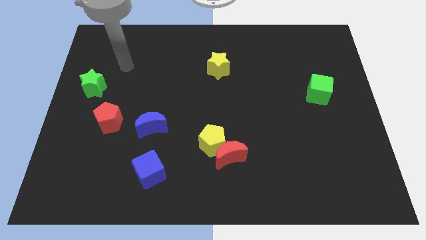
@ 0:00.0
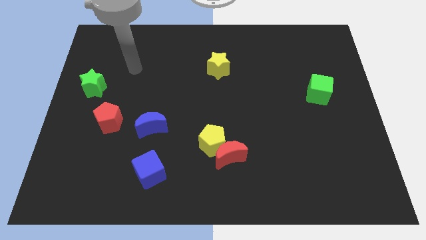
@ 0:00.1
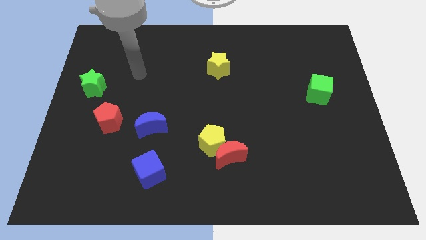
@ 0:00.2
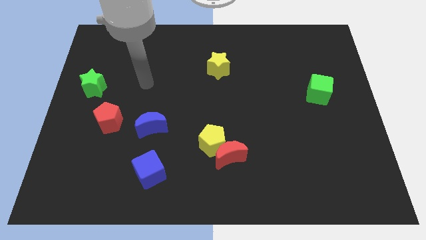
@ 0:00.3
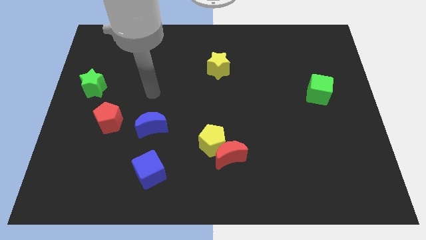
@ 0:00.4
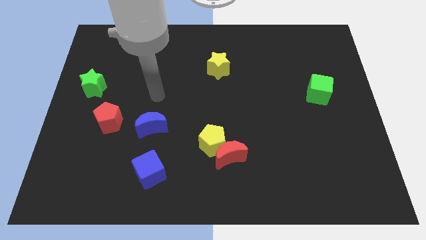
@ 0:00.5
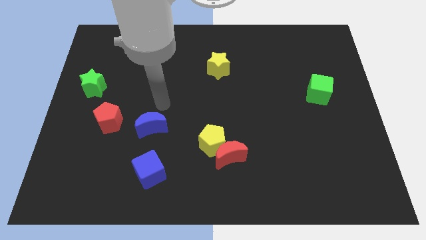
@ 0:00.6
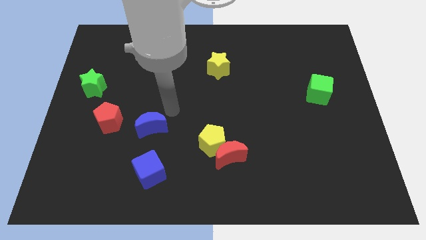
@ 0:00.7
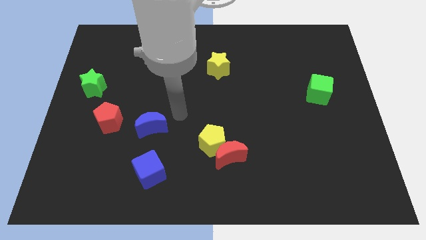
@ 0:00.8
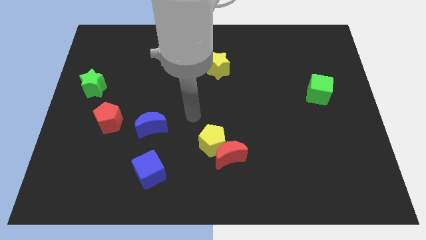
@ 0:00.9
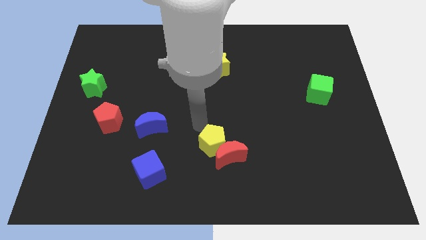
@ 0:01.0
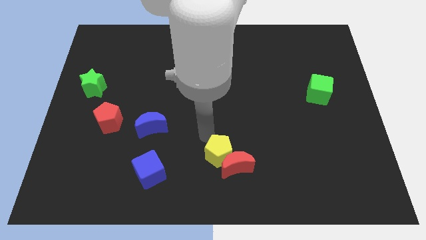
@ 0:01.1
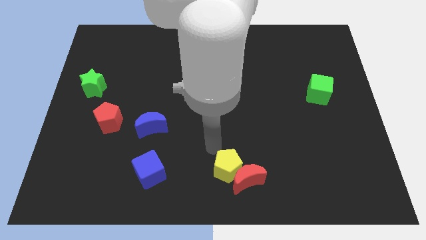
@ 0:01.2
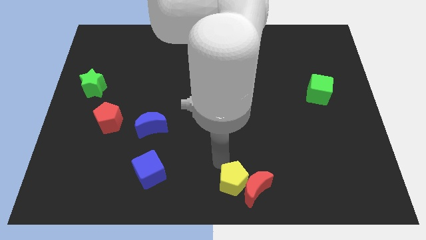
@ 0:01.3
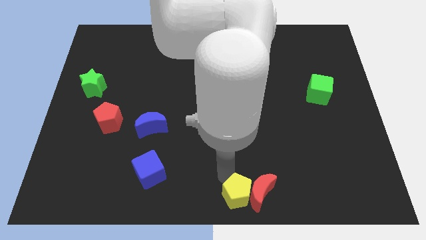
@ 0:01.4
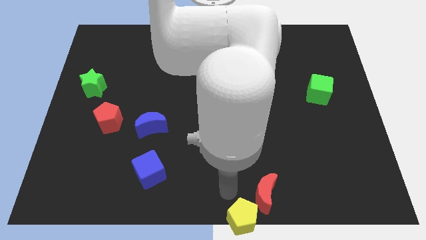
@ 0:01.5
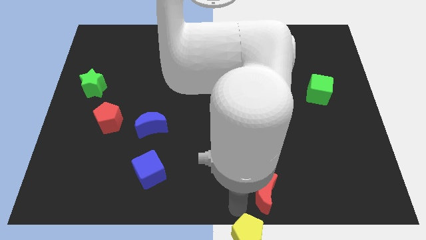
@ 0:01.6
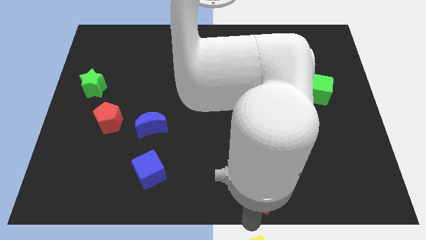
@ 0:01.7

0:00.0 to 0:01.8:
pull the red moon apart from the yellow pentagon

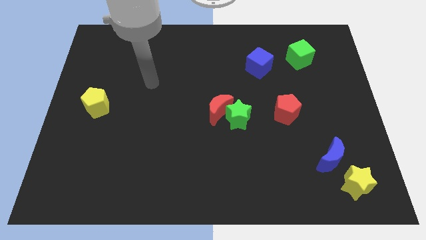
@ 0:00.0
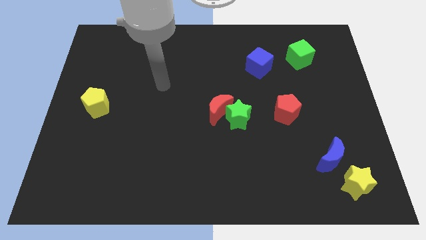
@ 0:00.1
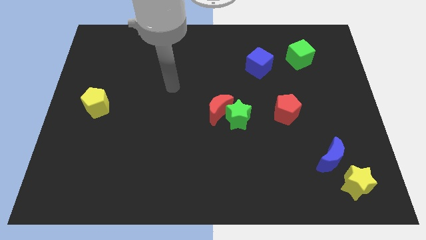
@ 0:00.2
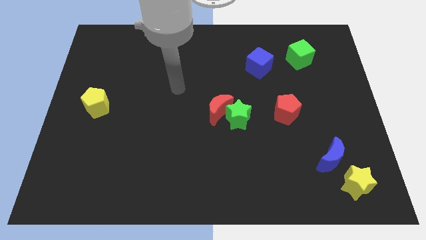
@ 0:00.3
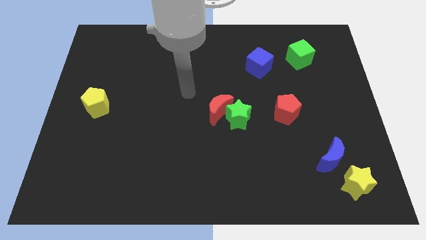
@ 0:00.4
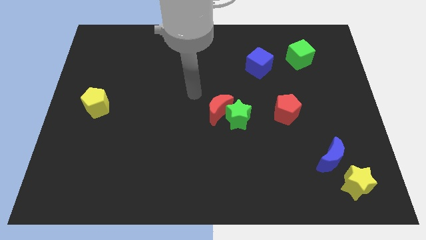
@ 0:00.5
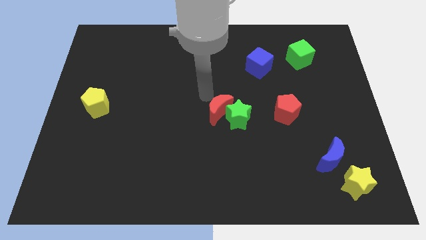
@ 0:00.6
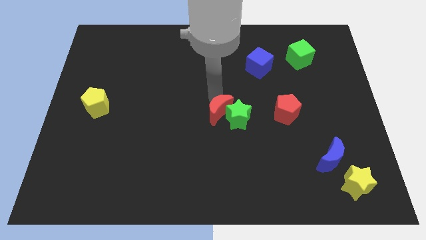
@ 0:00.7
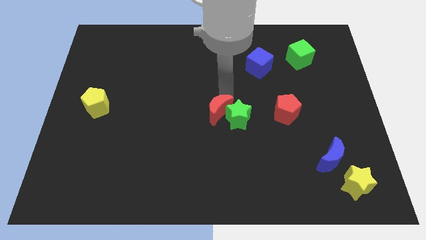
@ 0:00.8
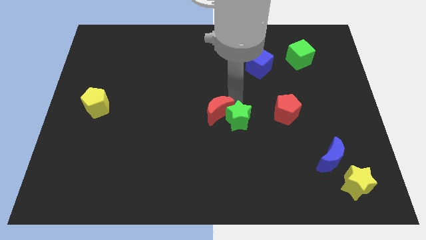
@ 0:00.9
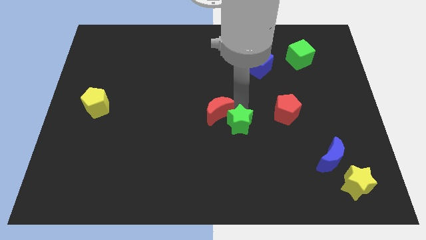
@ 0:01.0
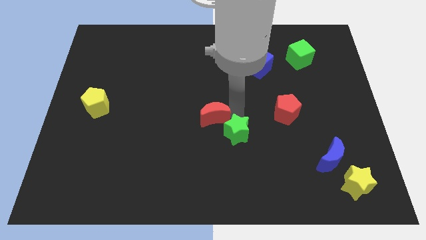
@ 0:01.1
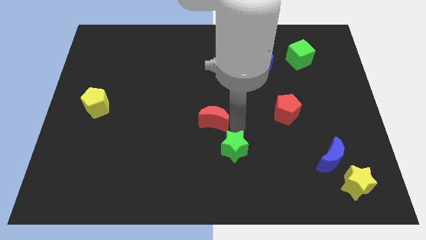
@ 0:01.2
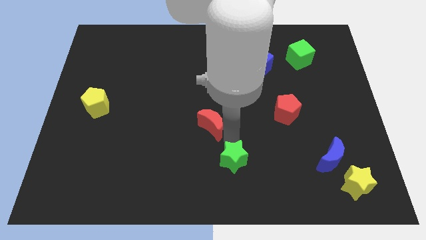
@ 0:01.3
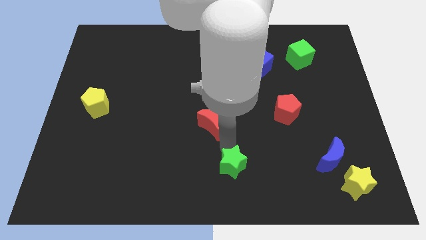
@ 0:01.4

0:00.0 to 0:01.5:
separate the red moon from the green star

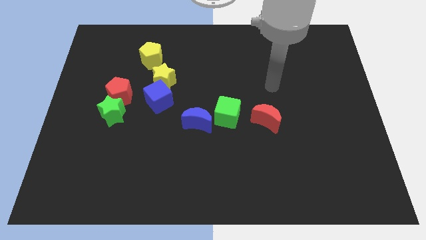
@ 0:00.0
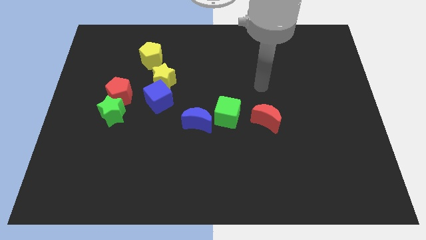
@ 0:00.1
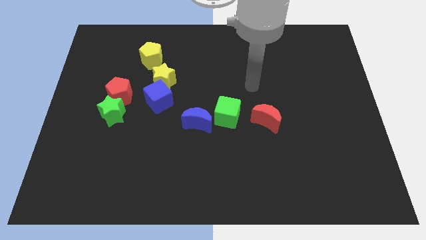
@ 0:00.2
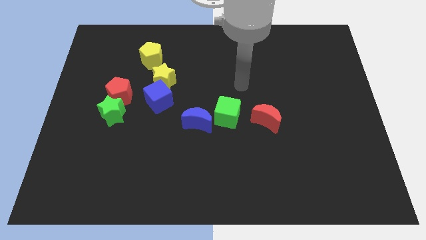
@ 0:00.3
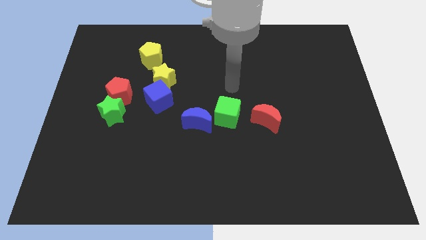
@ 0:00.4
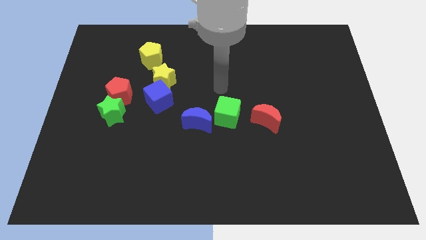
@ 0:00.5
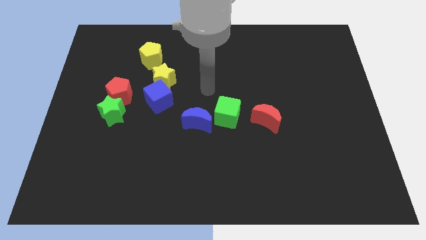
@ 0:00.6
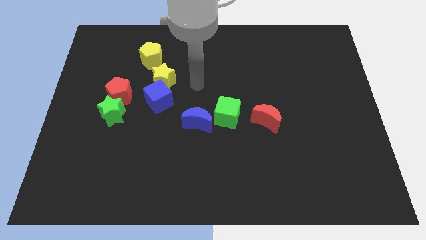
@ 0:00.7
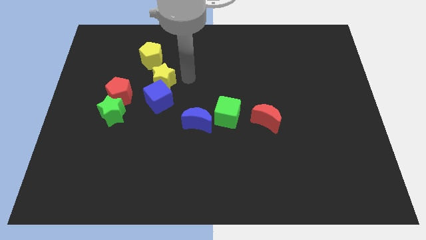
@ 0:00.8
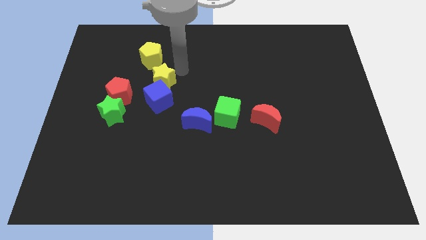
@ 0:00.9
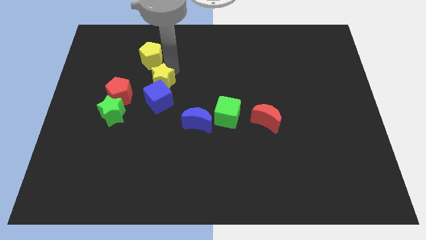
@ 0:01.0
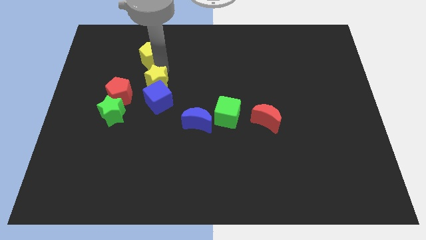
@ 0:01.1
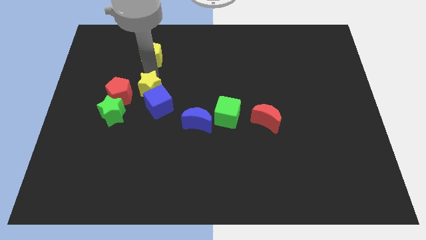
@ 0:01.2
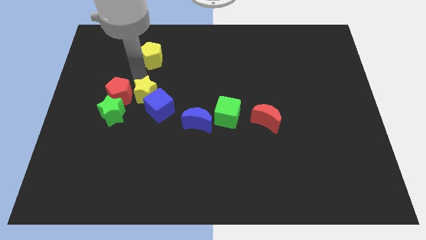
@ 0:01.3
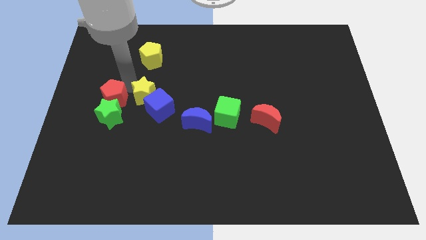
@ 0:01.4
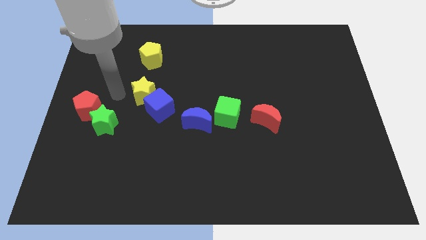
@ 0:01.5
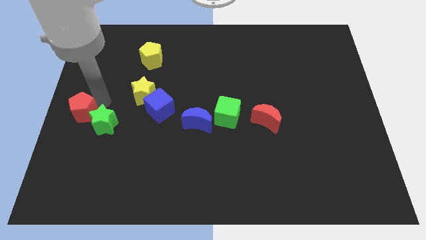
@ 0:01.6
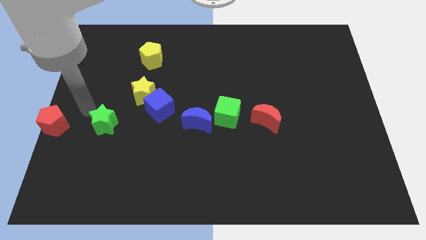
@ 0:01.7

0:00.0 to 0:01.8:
separate the green star from the red pentagon

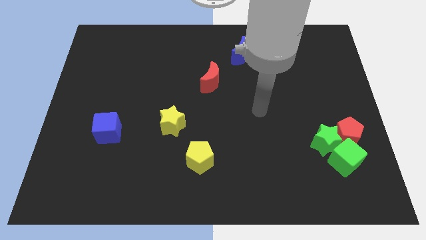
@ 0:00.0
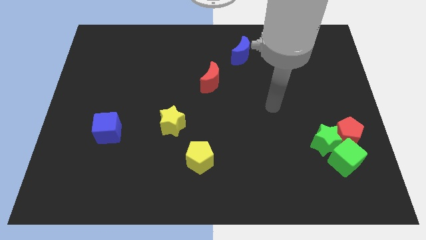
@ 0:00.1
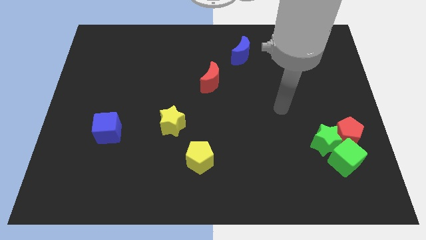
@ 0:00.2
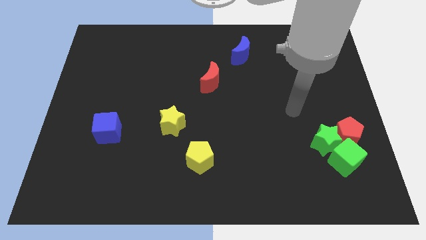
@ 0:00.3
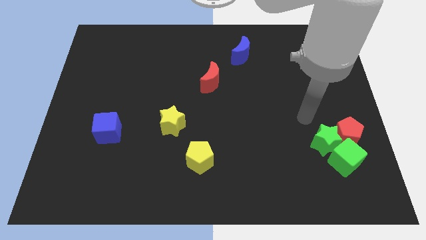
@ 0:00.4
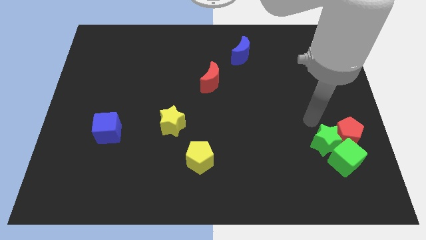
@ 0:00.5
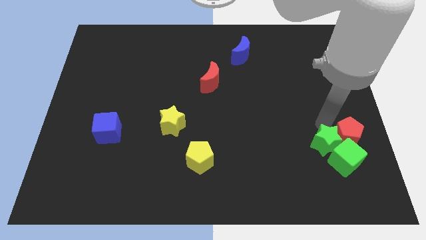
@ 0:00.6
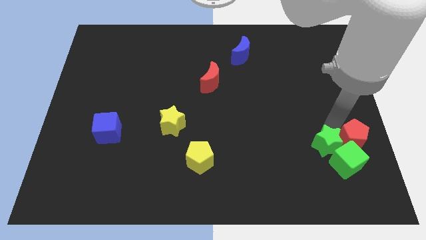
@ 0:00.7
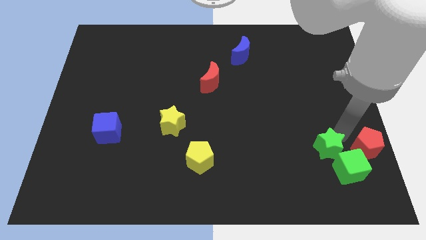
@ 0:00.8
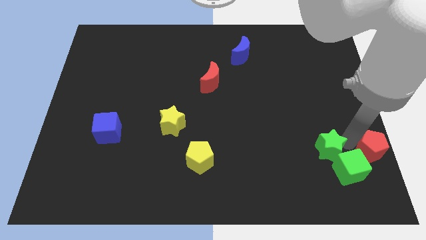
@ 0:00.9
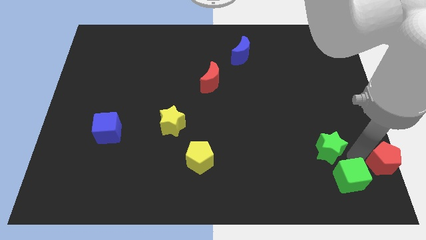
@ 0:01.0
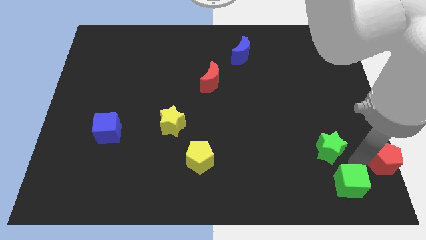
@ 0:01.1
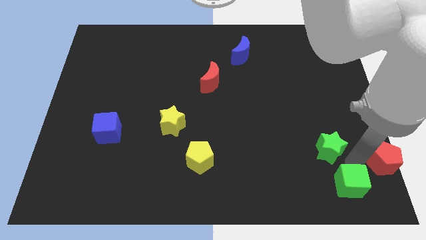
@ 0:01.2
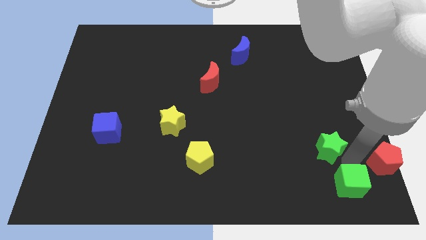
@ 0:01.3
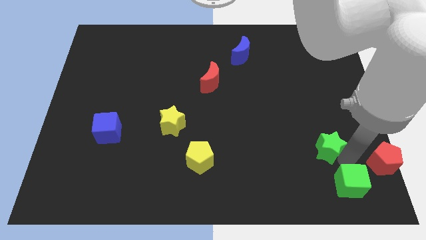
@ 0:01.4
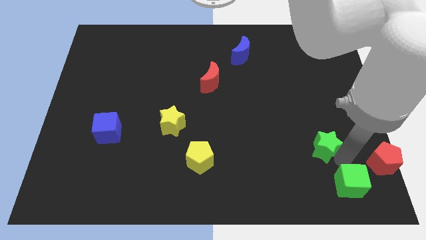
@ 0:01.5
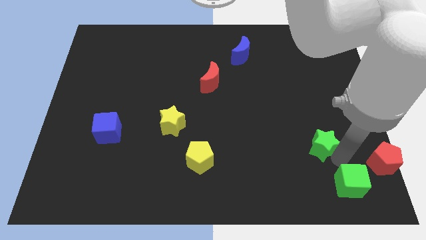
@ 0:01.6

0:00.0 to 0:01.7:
move the green star away from the red pentagon and green cube

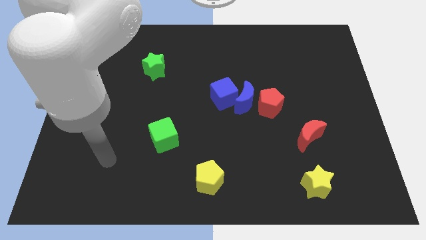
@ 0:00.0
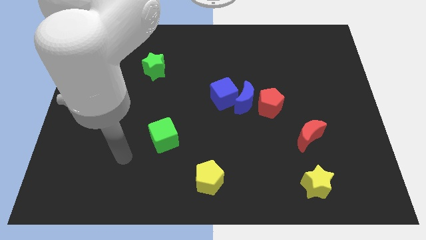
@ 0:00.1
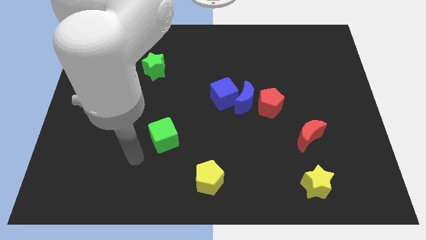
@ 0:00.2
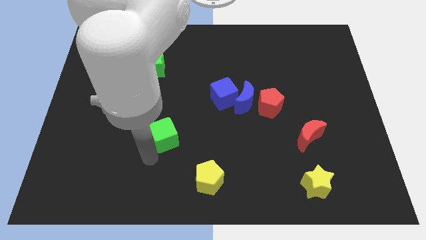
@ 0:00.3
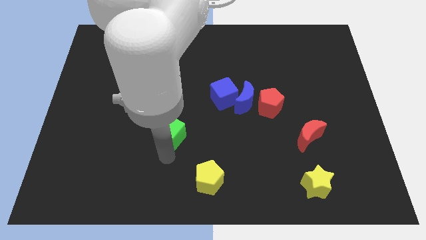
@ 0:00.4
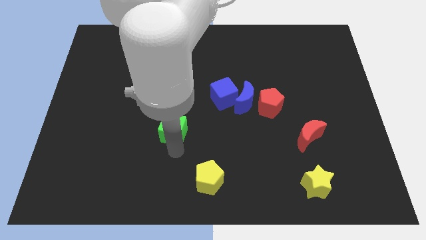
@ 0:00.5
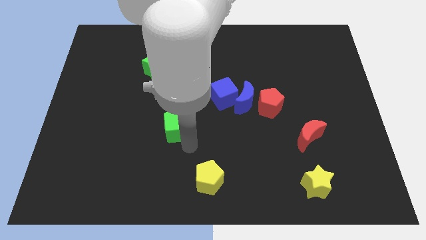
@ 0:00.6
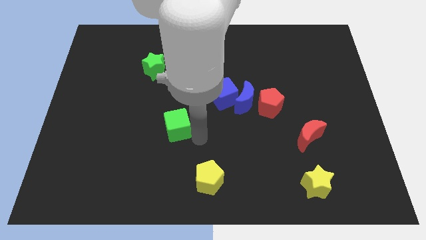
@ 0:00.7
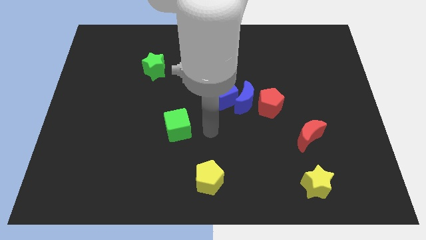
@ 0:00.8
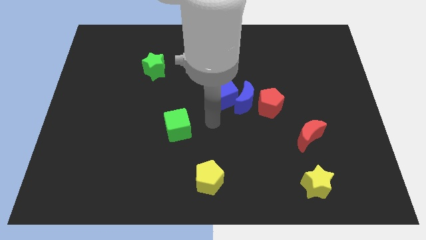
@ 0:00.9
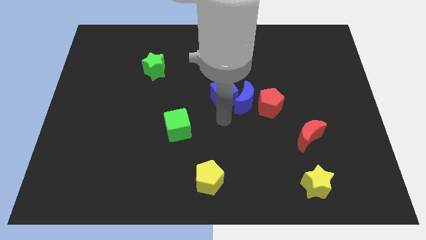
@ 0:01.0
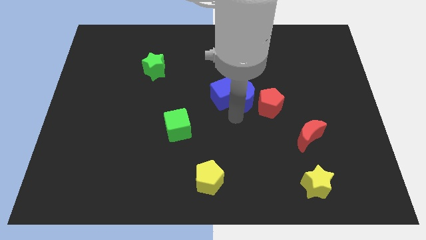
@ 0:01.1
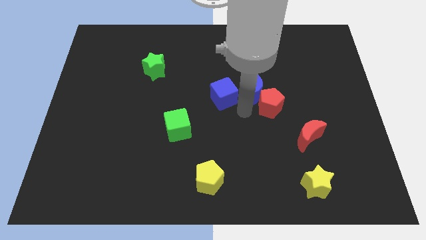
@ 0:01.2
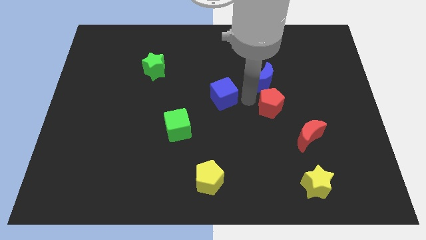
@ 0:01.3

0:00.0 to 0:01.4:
separate the blue cube from the blue moon

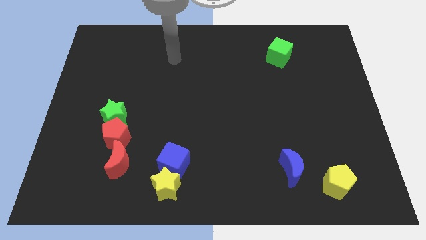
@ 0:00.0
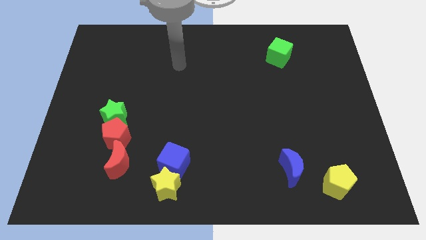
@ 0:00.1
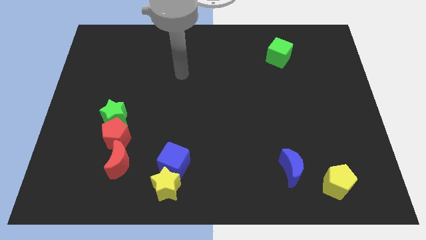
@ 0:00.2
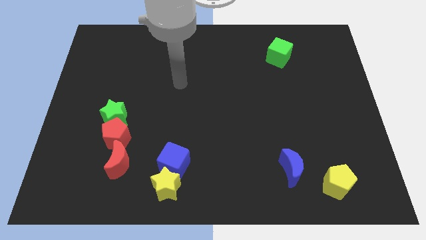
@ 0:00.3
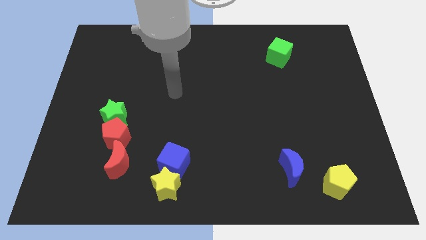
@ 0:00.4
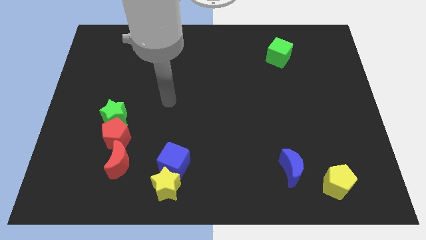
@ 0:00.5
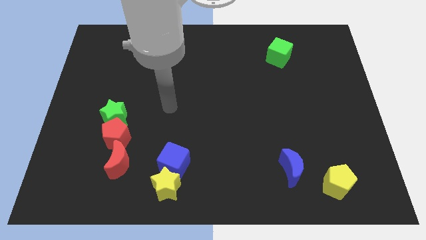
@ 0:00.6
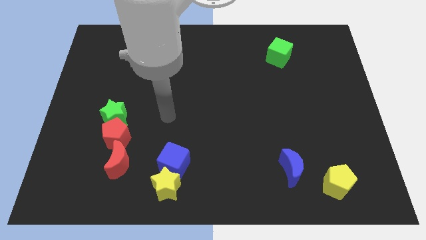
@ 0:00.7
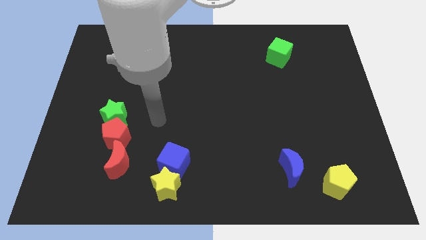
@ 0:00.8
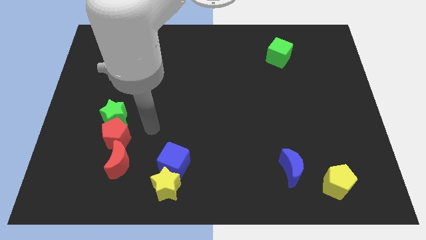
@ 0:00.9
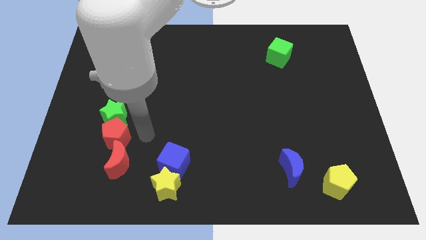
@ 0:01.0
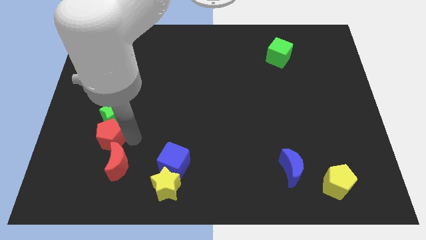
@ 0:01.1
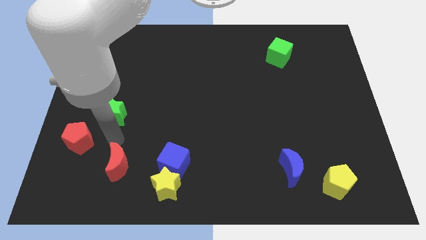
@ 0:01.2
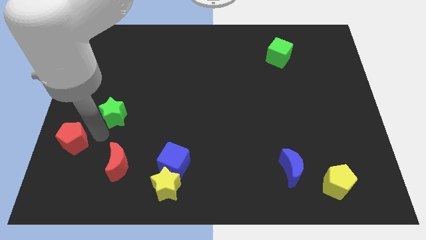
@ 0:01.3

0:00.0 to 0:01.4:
move the green star away from the red pentagon
